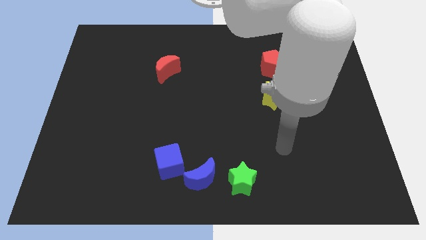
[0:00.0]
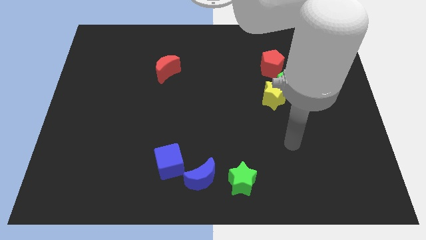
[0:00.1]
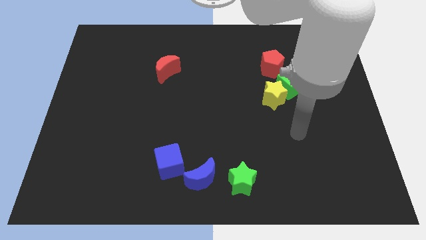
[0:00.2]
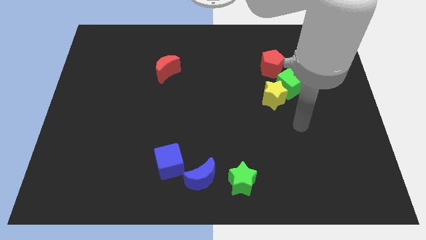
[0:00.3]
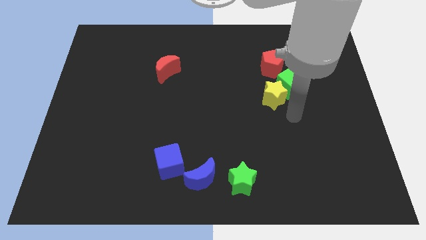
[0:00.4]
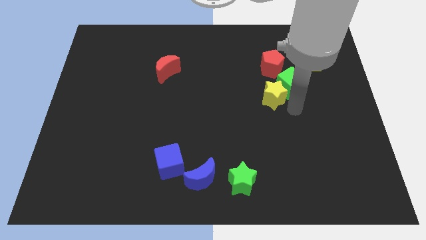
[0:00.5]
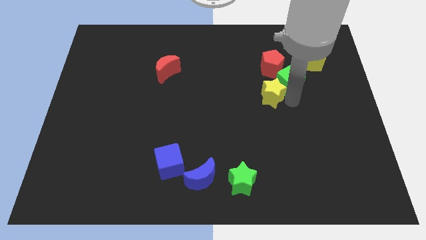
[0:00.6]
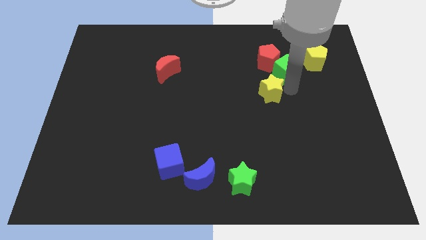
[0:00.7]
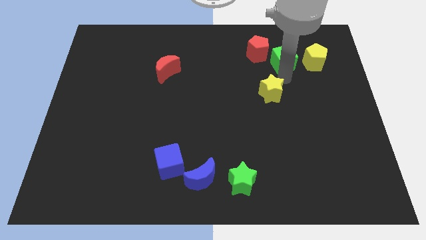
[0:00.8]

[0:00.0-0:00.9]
pull the yellow star apart from the green cube

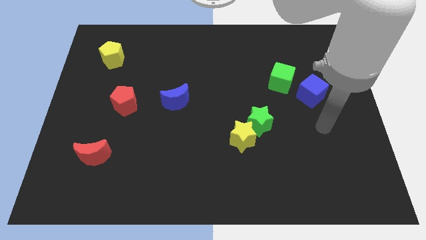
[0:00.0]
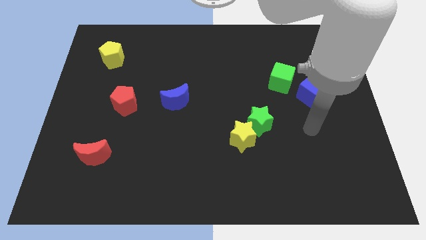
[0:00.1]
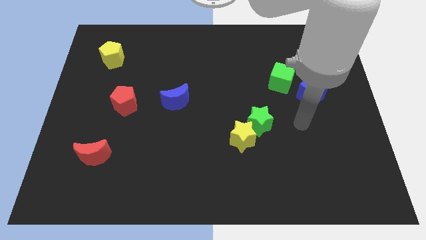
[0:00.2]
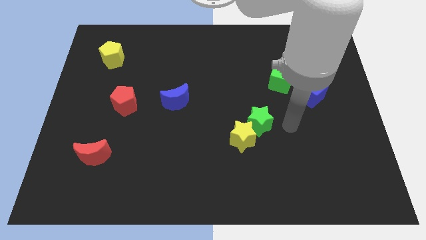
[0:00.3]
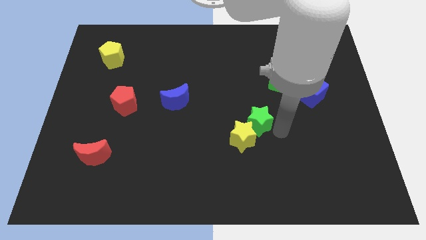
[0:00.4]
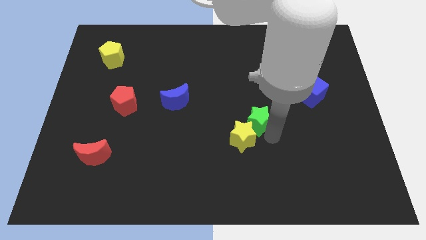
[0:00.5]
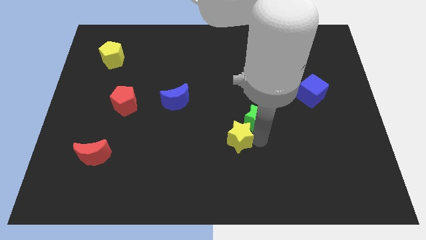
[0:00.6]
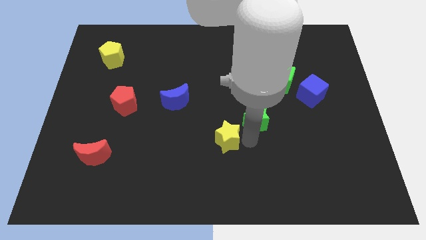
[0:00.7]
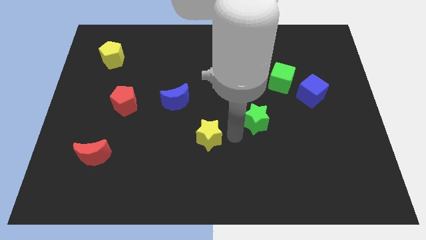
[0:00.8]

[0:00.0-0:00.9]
pull the green star apart from the yellow star

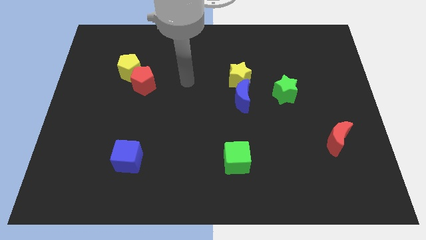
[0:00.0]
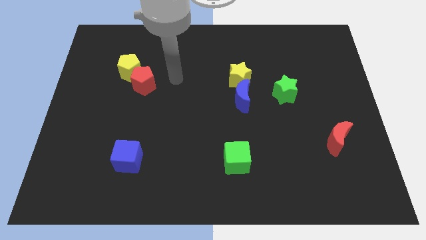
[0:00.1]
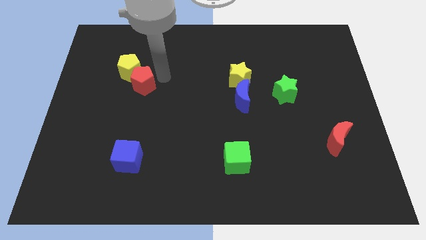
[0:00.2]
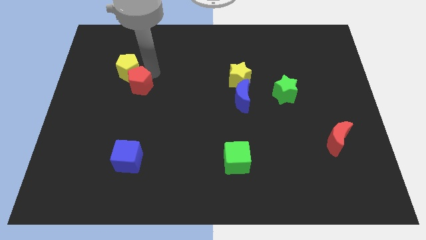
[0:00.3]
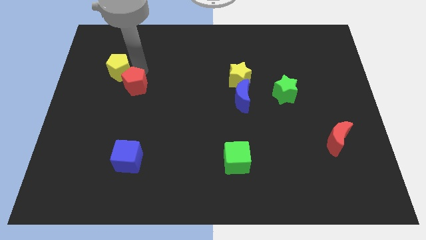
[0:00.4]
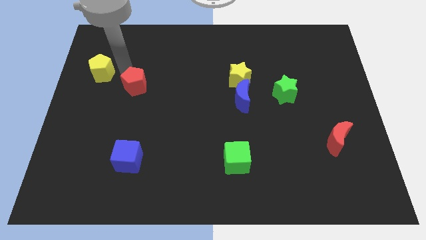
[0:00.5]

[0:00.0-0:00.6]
move the red pentagon away from the yellow pentagon

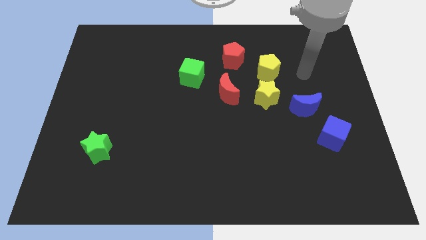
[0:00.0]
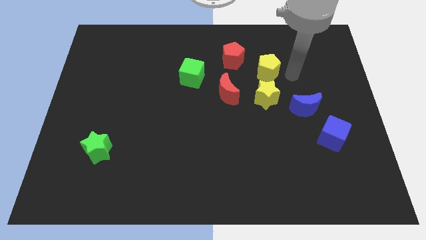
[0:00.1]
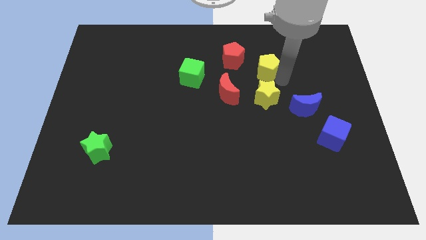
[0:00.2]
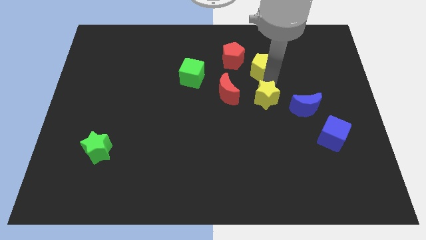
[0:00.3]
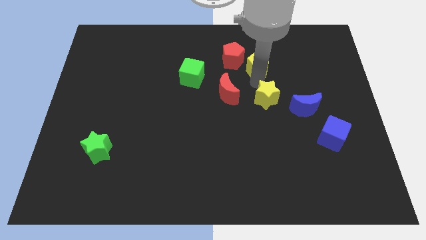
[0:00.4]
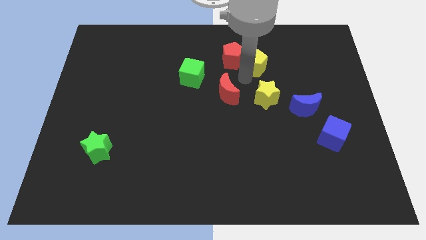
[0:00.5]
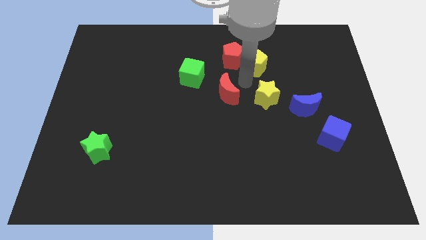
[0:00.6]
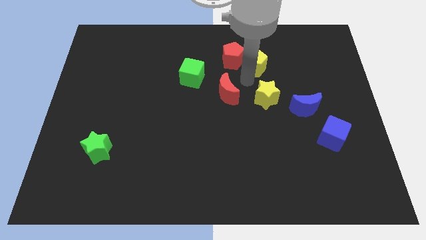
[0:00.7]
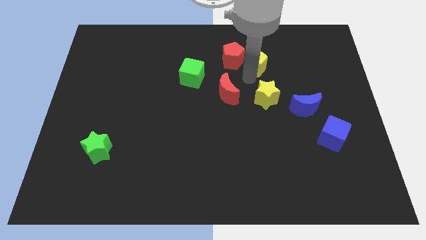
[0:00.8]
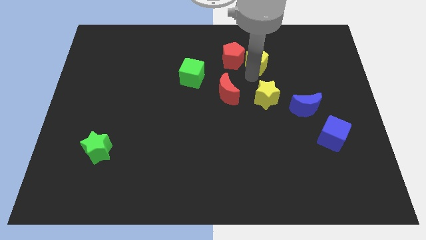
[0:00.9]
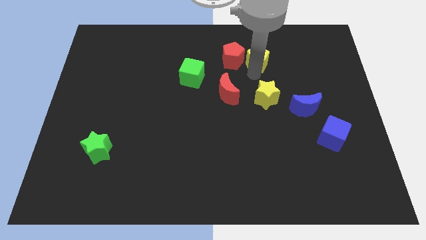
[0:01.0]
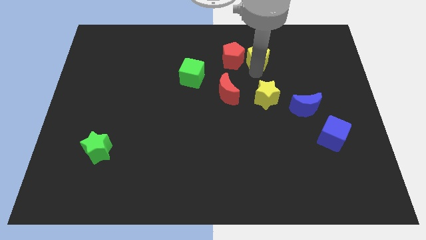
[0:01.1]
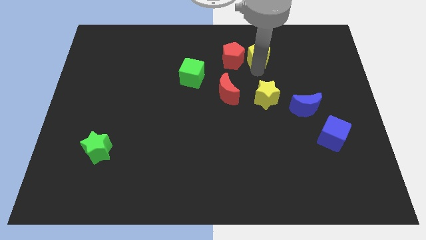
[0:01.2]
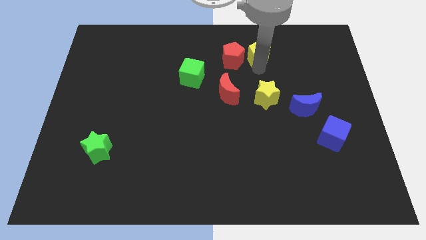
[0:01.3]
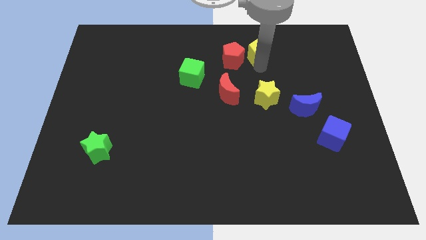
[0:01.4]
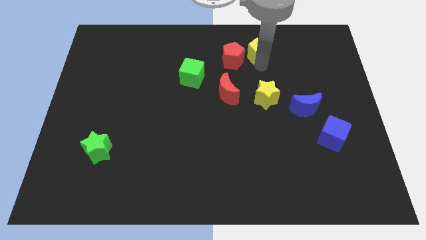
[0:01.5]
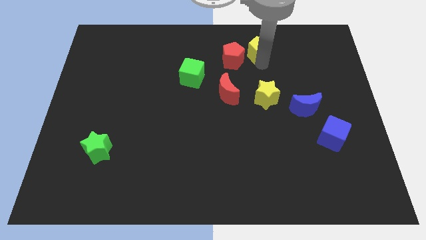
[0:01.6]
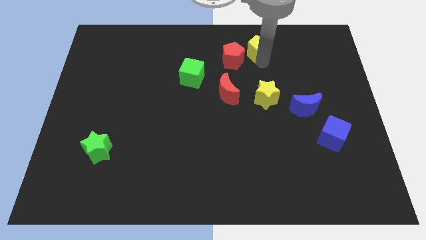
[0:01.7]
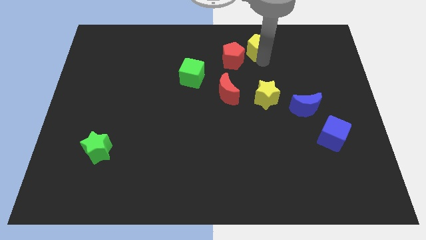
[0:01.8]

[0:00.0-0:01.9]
separate the yellow pentagon from the yellow star and red pentagon

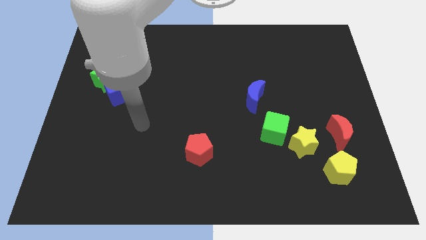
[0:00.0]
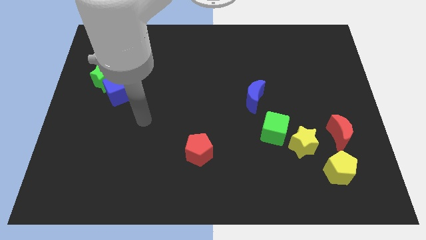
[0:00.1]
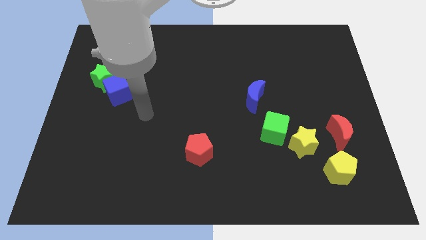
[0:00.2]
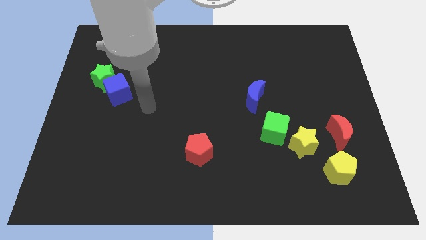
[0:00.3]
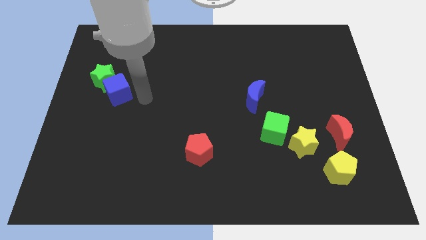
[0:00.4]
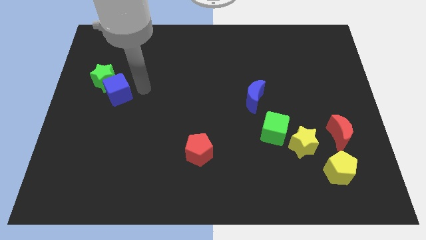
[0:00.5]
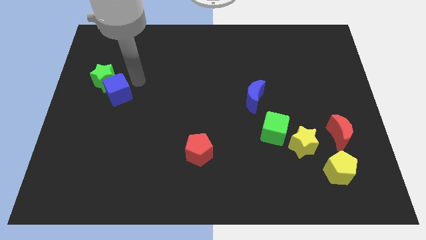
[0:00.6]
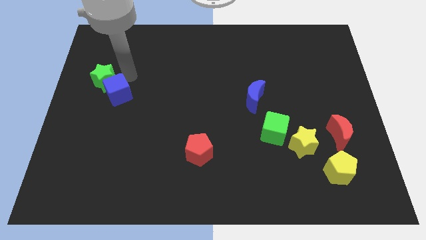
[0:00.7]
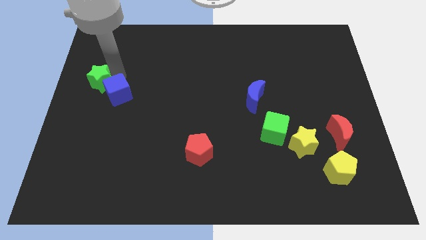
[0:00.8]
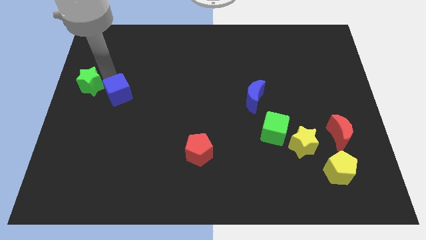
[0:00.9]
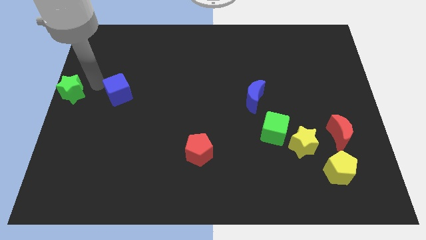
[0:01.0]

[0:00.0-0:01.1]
separate the blue cube from the green star

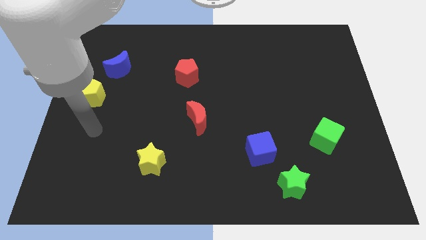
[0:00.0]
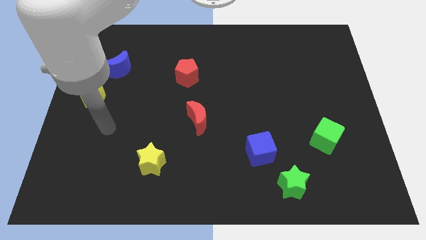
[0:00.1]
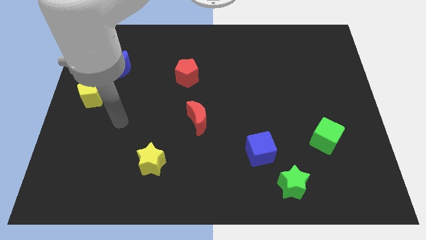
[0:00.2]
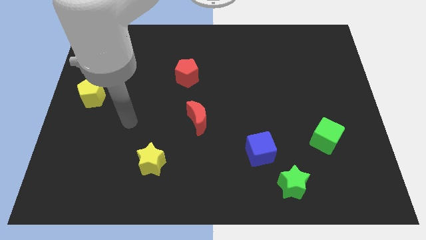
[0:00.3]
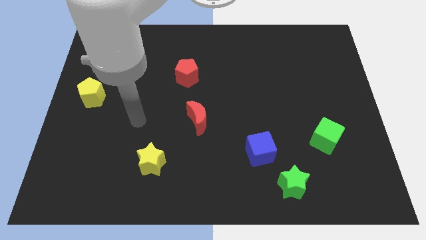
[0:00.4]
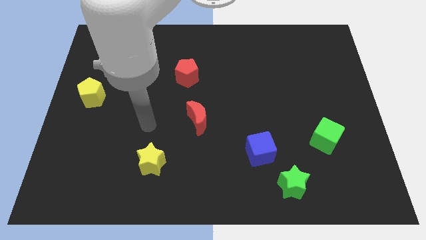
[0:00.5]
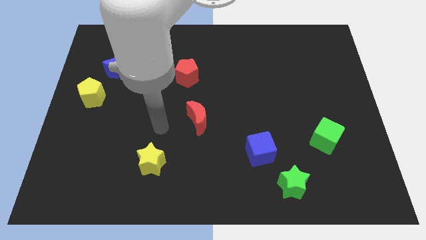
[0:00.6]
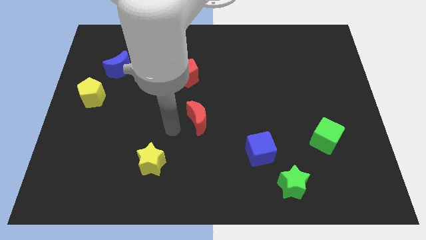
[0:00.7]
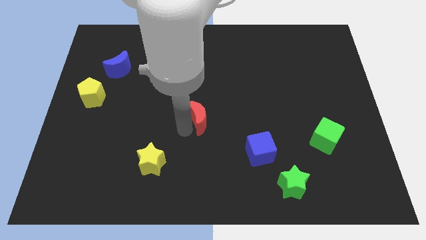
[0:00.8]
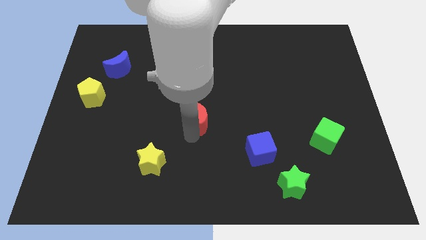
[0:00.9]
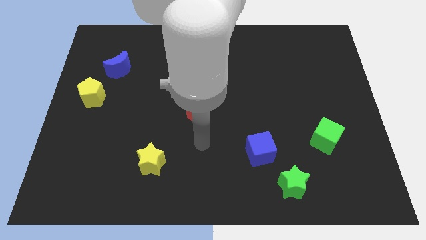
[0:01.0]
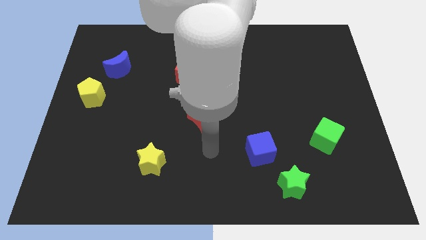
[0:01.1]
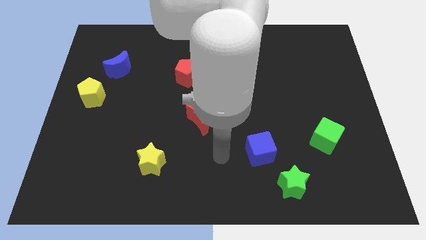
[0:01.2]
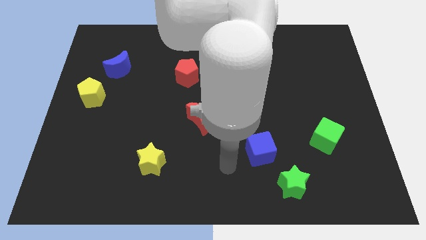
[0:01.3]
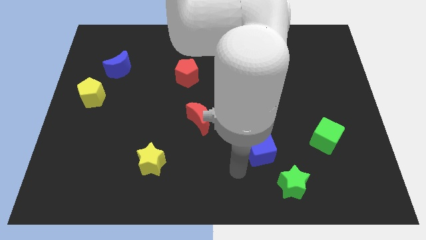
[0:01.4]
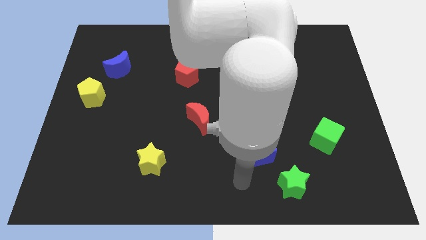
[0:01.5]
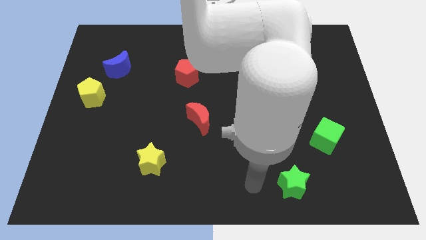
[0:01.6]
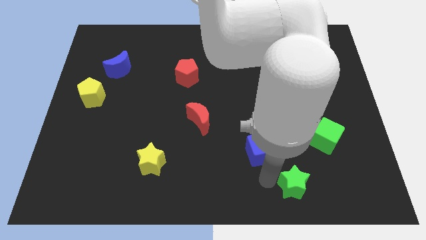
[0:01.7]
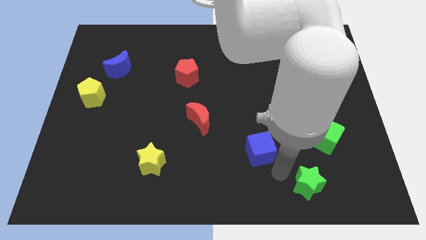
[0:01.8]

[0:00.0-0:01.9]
move the blue cube away from the green star

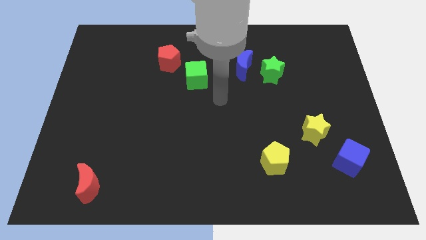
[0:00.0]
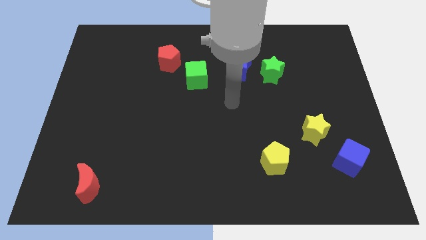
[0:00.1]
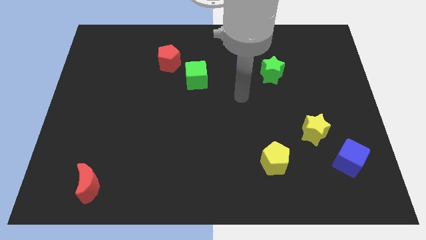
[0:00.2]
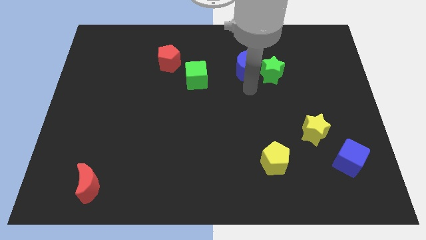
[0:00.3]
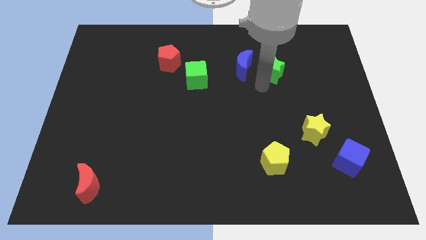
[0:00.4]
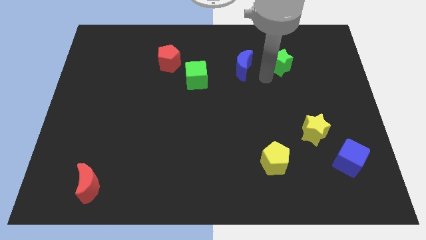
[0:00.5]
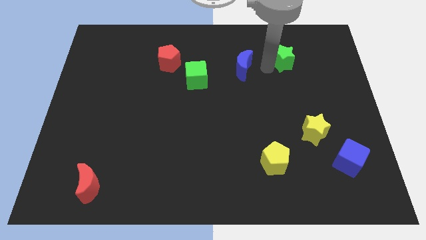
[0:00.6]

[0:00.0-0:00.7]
separate the blue moon from the green star

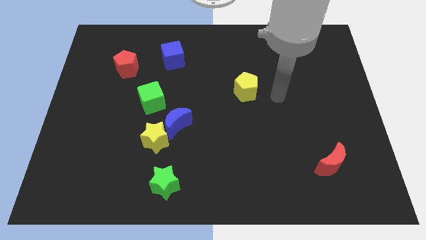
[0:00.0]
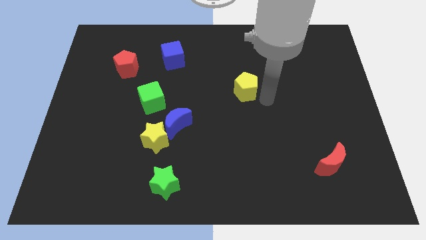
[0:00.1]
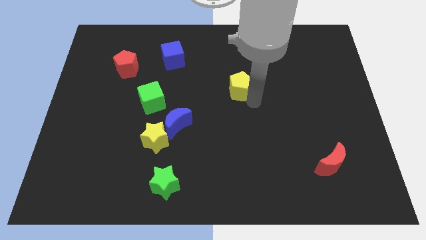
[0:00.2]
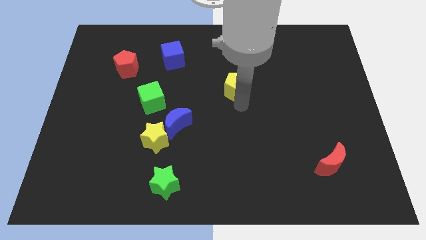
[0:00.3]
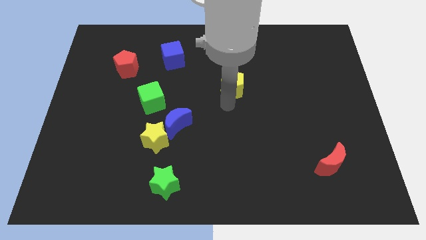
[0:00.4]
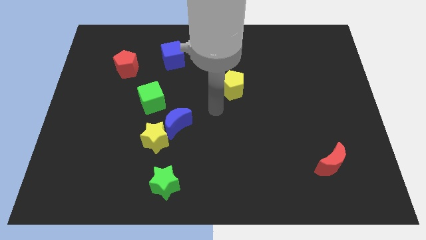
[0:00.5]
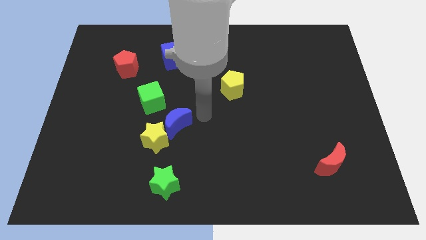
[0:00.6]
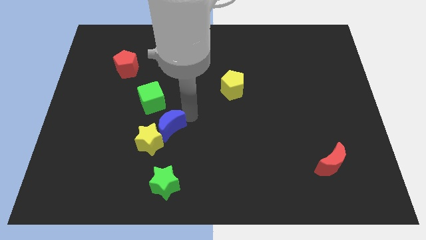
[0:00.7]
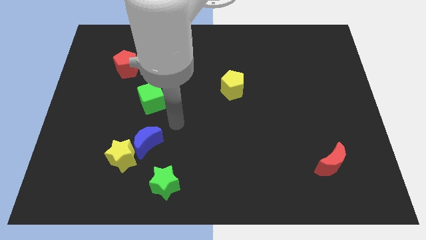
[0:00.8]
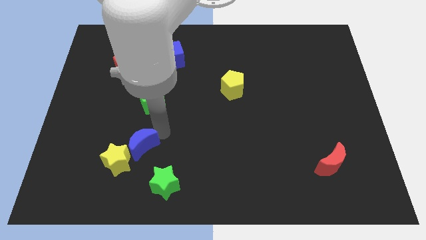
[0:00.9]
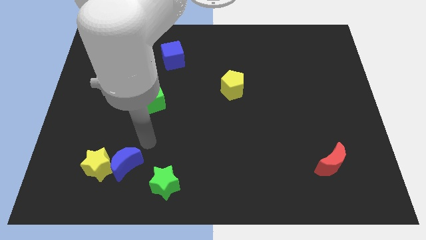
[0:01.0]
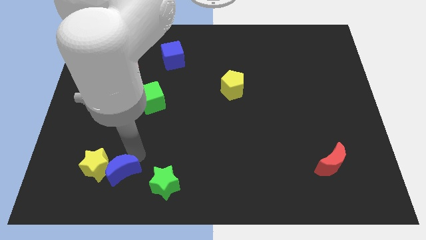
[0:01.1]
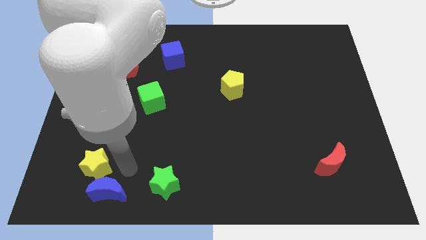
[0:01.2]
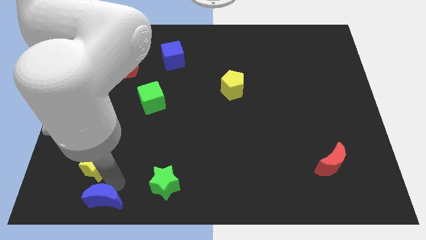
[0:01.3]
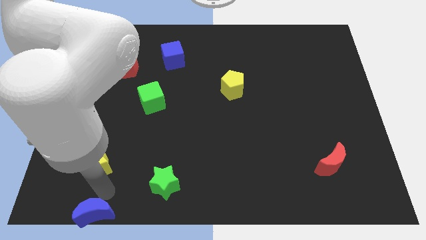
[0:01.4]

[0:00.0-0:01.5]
separate the yellow star from the blue moon
